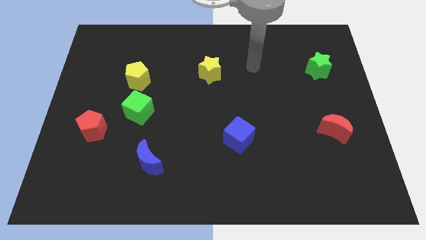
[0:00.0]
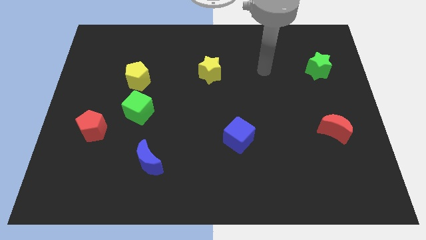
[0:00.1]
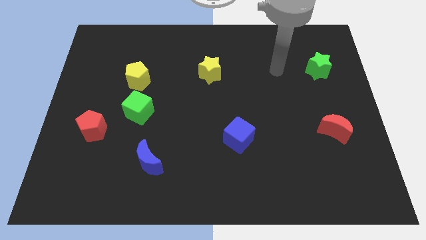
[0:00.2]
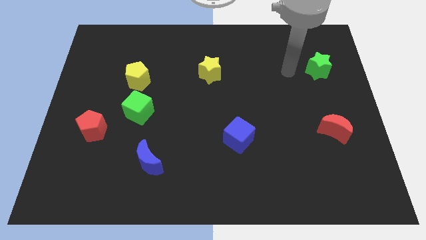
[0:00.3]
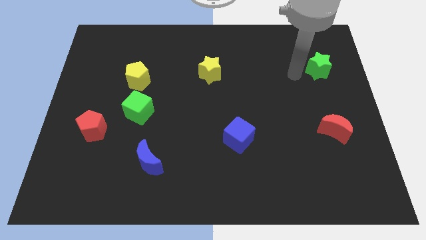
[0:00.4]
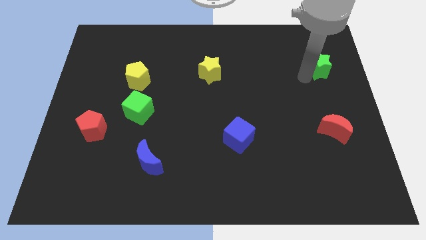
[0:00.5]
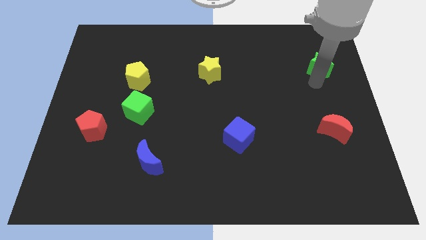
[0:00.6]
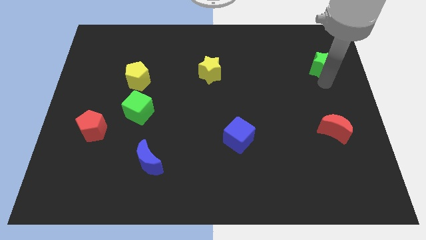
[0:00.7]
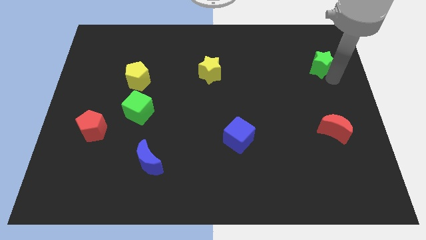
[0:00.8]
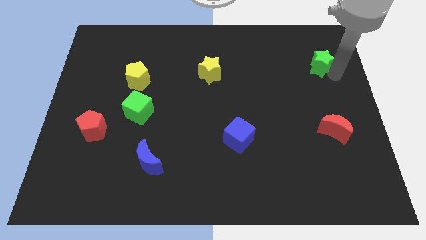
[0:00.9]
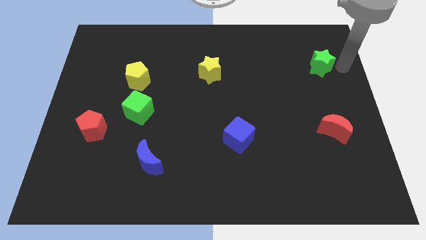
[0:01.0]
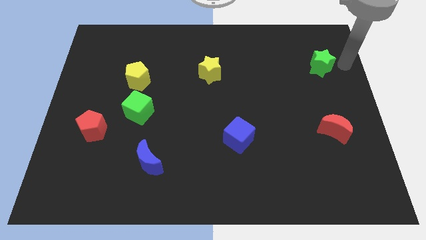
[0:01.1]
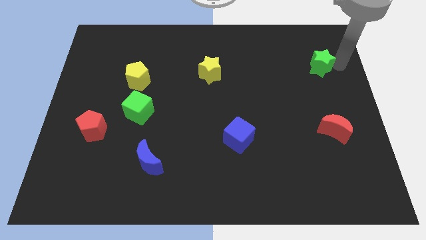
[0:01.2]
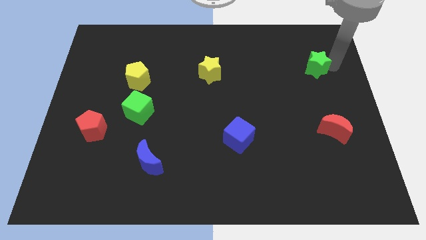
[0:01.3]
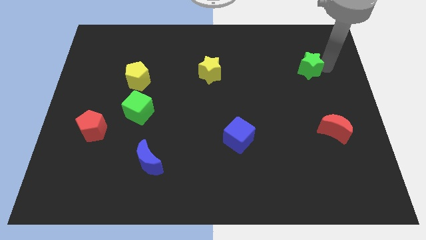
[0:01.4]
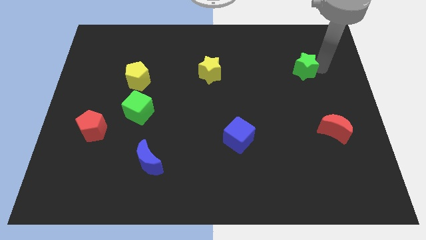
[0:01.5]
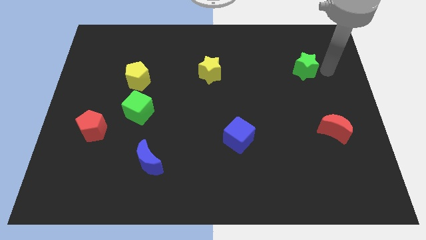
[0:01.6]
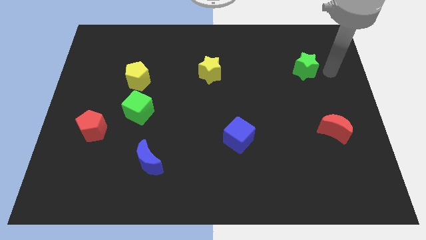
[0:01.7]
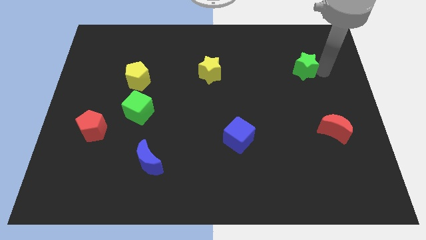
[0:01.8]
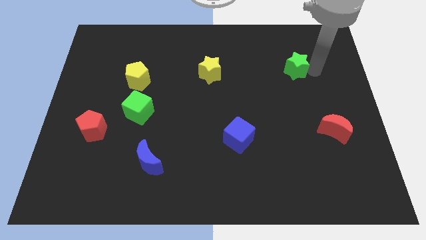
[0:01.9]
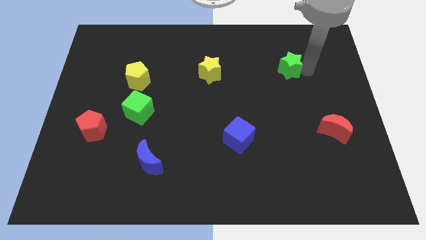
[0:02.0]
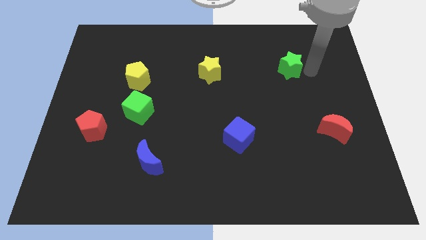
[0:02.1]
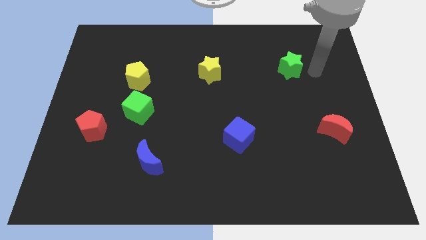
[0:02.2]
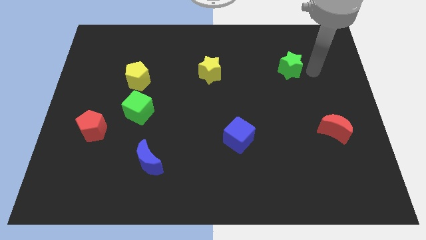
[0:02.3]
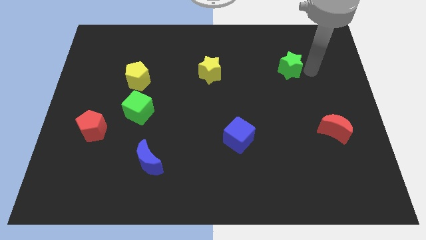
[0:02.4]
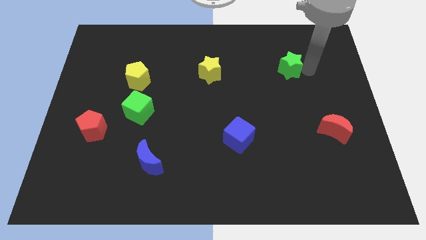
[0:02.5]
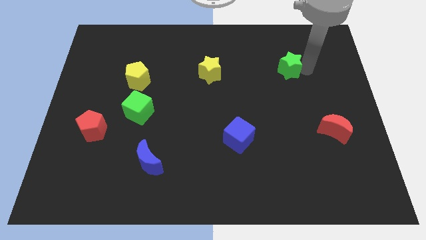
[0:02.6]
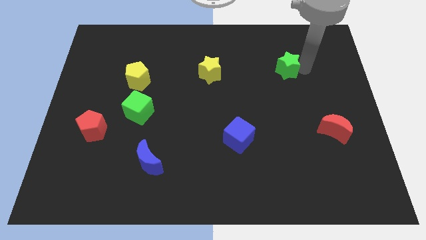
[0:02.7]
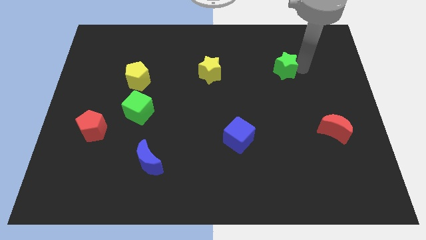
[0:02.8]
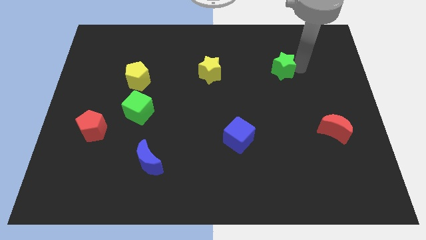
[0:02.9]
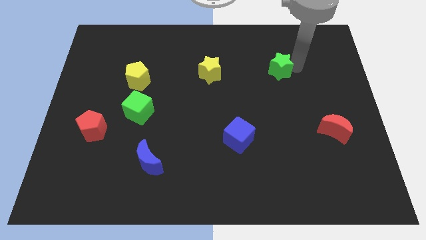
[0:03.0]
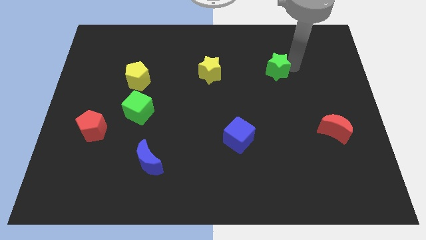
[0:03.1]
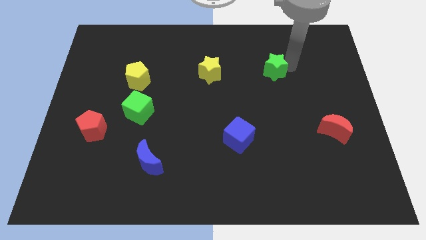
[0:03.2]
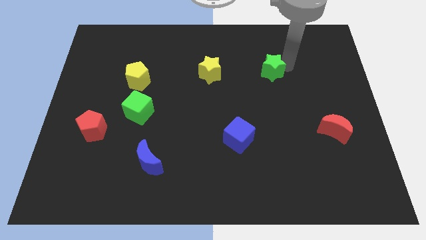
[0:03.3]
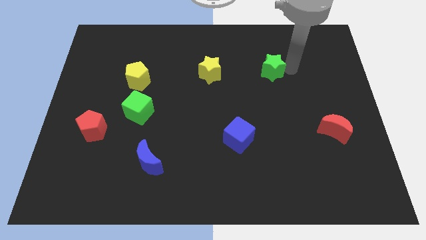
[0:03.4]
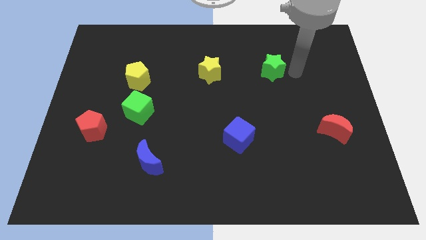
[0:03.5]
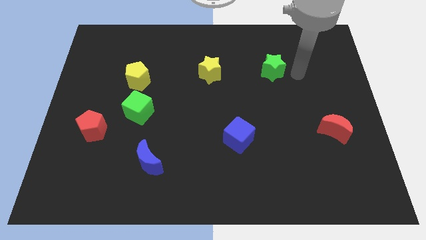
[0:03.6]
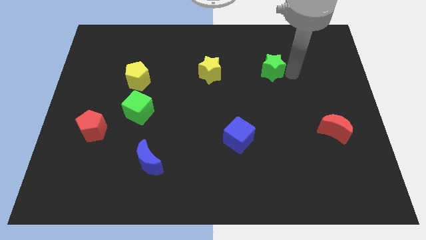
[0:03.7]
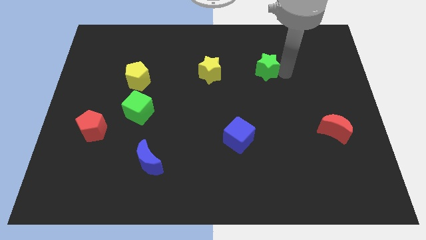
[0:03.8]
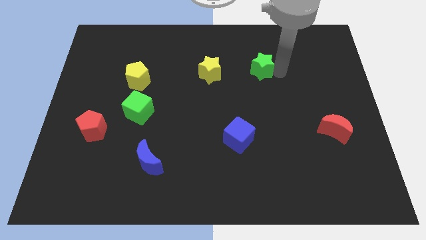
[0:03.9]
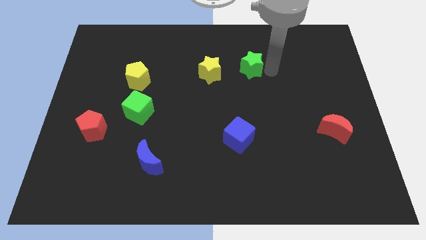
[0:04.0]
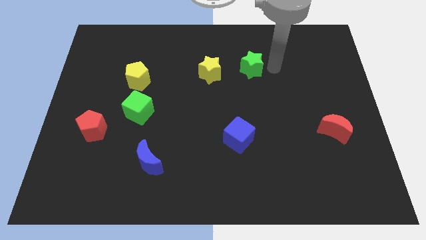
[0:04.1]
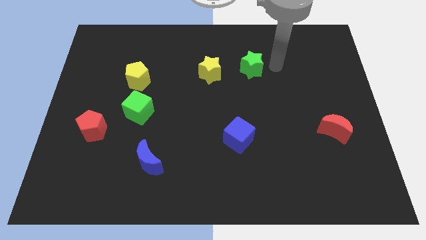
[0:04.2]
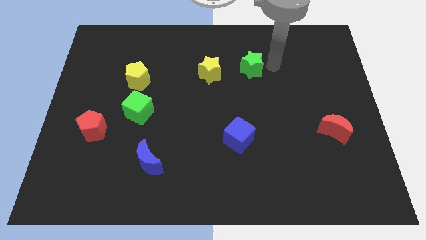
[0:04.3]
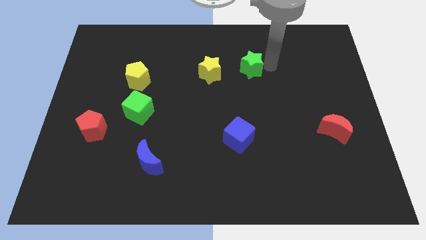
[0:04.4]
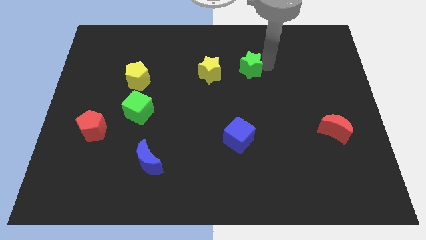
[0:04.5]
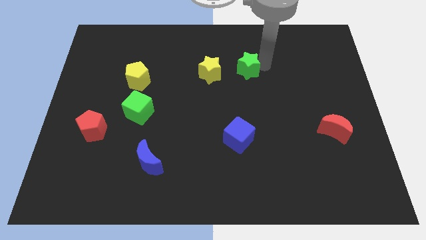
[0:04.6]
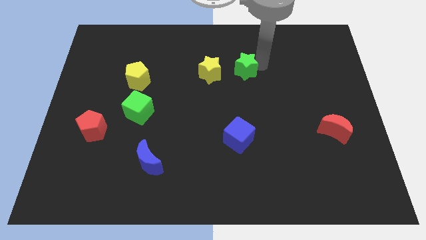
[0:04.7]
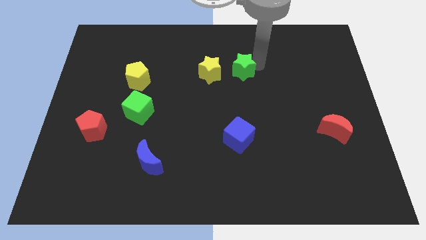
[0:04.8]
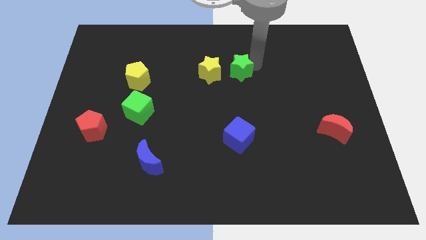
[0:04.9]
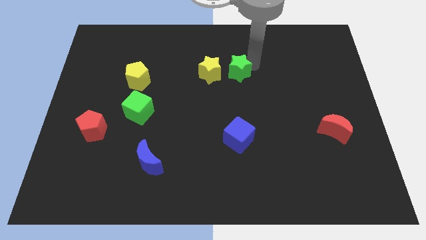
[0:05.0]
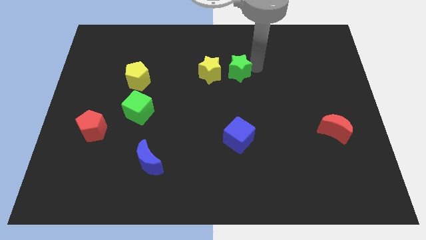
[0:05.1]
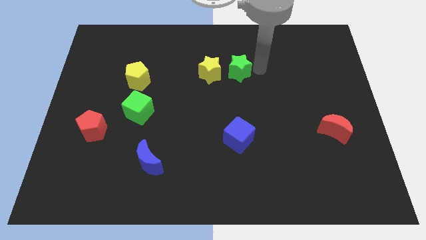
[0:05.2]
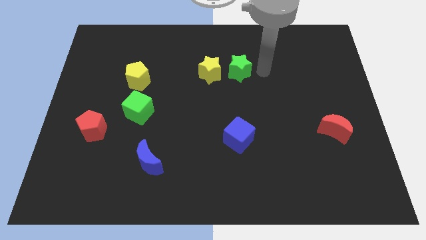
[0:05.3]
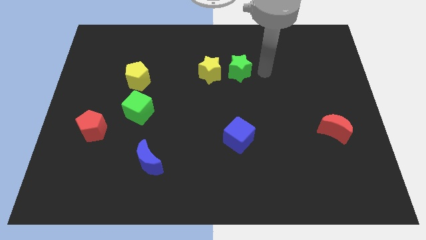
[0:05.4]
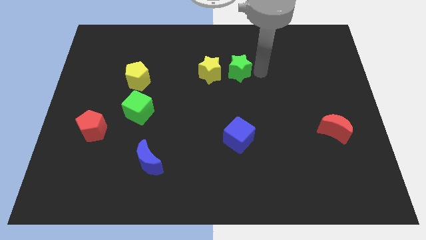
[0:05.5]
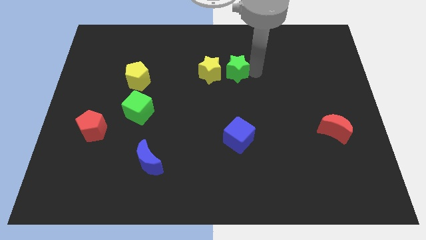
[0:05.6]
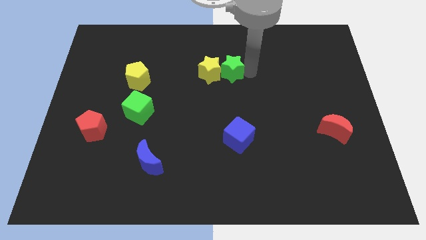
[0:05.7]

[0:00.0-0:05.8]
put the green star to the yellow star

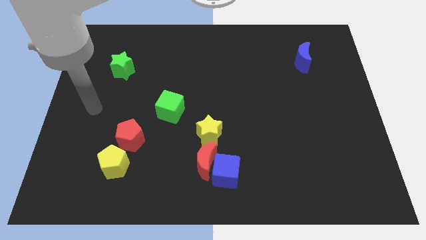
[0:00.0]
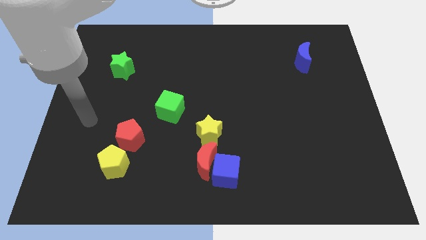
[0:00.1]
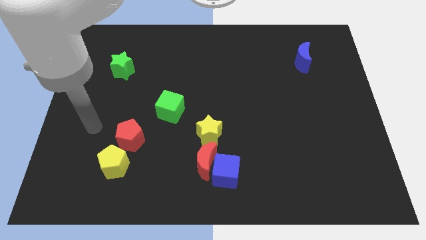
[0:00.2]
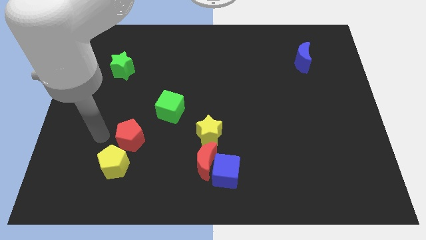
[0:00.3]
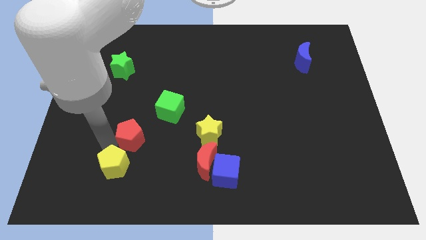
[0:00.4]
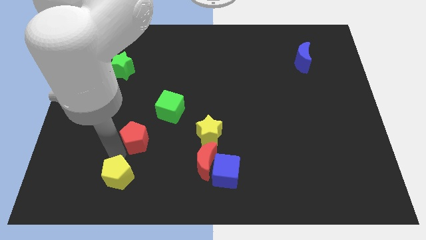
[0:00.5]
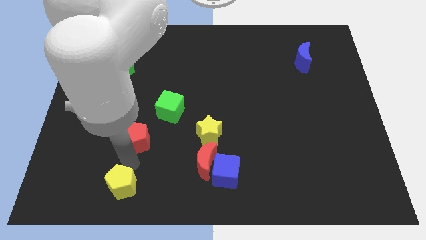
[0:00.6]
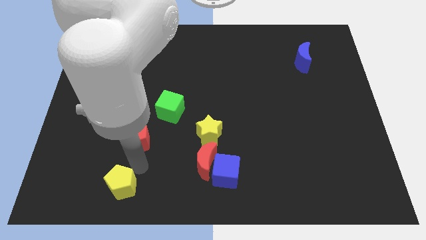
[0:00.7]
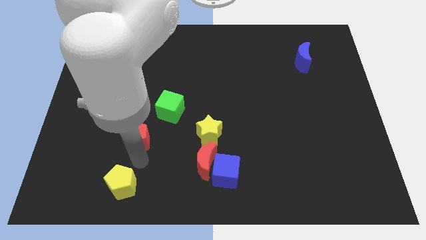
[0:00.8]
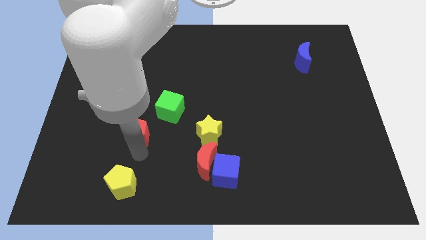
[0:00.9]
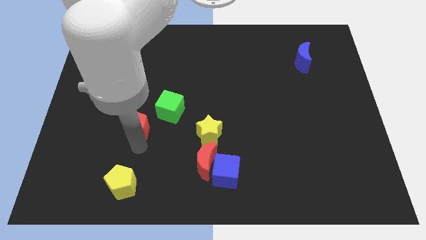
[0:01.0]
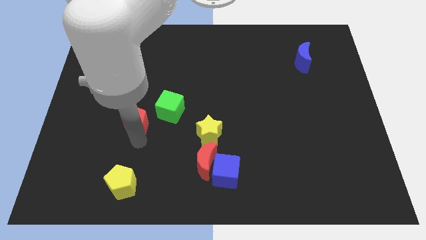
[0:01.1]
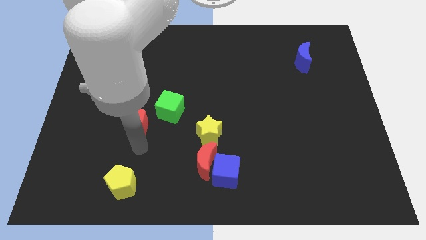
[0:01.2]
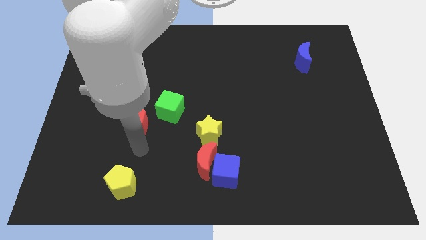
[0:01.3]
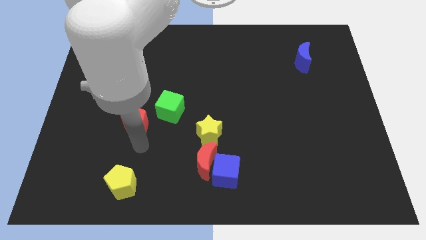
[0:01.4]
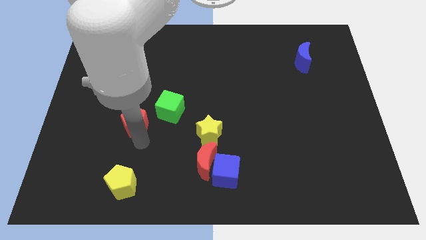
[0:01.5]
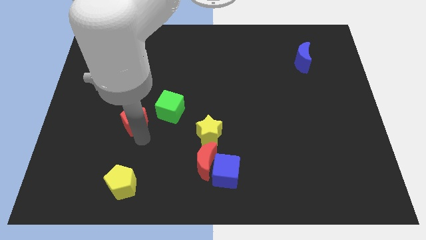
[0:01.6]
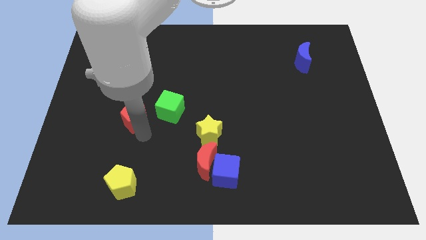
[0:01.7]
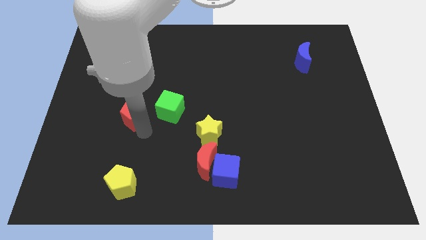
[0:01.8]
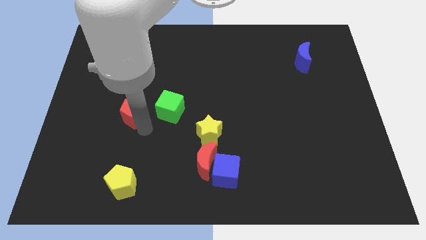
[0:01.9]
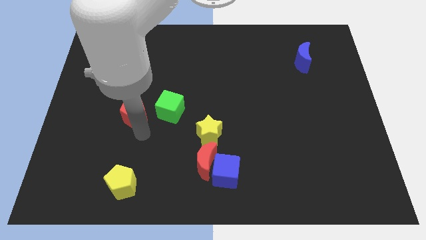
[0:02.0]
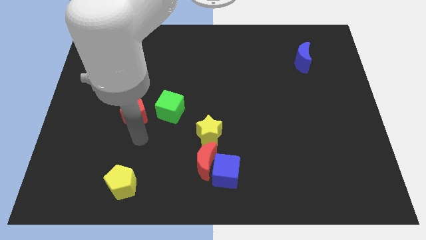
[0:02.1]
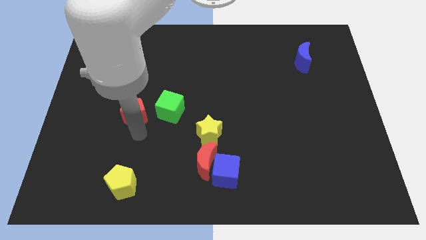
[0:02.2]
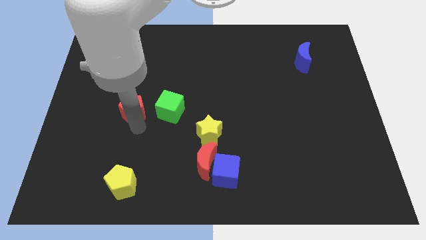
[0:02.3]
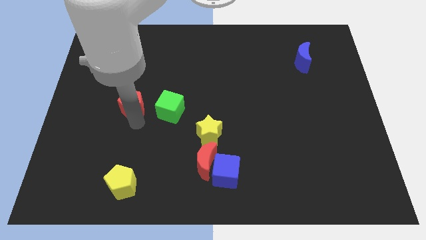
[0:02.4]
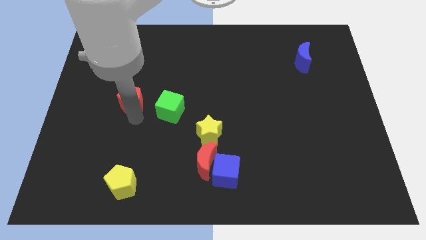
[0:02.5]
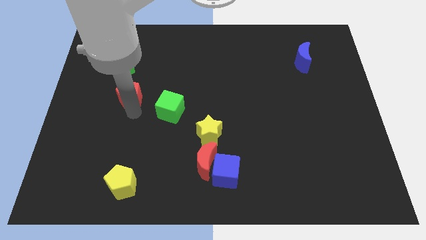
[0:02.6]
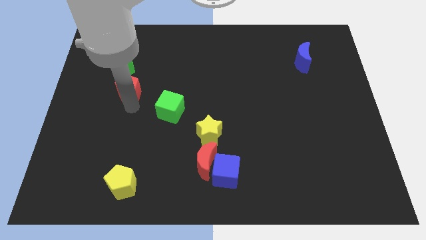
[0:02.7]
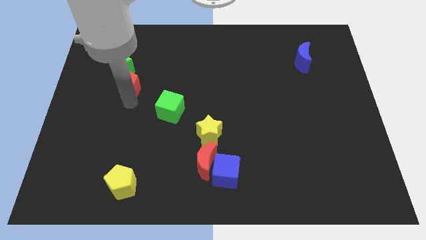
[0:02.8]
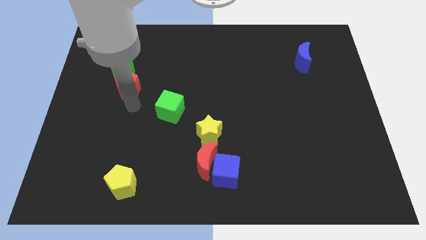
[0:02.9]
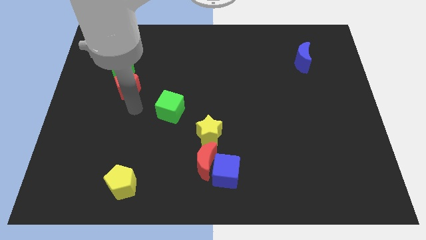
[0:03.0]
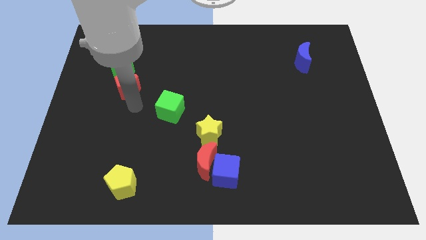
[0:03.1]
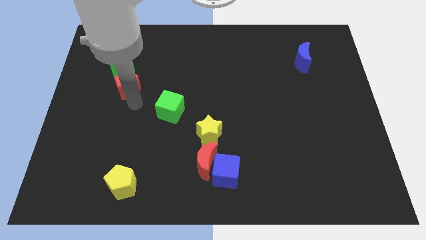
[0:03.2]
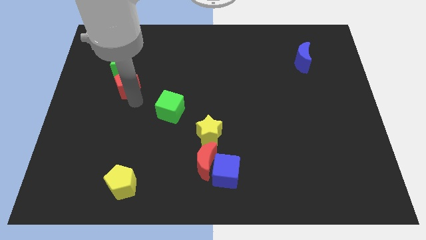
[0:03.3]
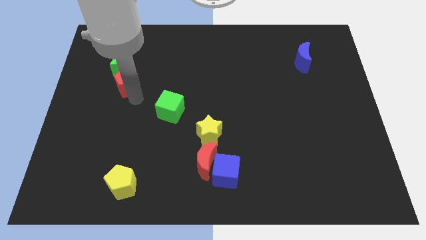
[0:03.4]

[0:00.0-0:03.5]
slide the red pentagon close to the green star
